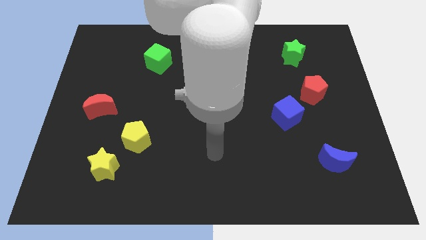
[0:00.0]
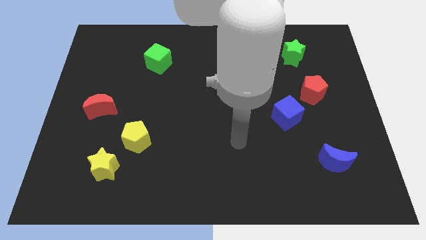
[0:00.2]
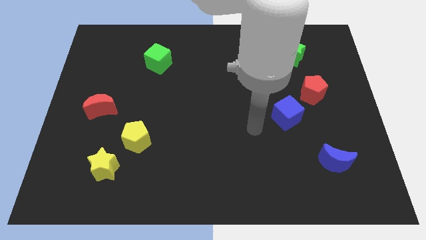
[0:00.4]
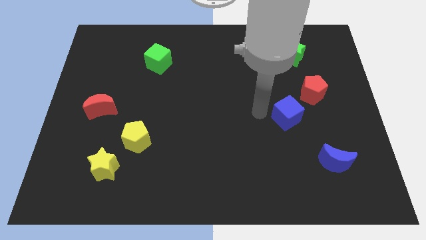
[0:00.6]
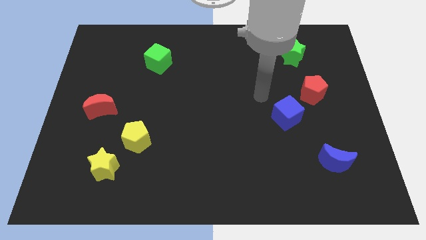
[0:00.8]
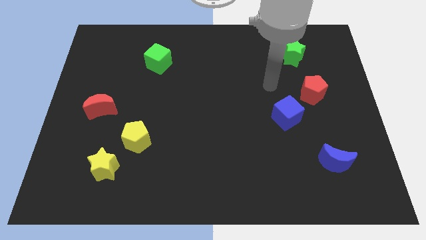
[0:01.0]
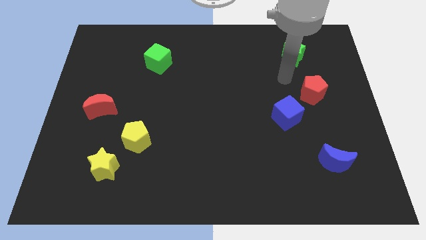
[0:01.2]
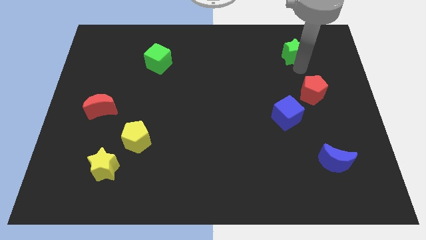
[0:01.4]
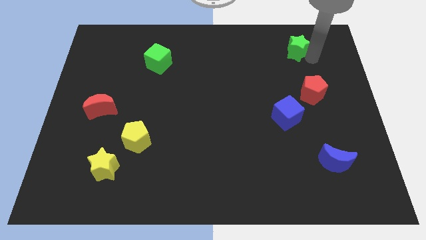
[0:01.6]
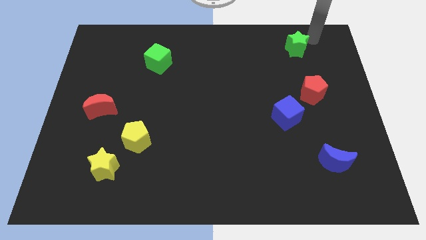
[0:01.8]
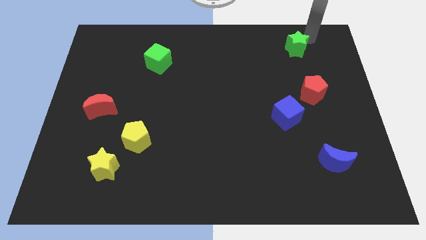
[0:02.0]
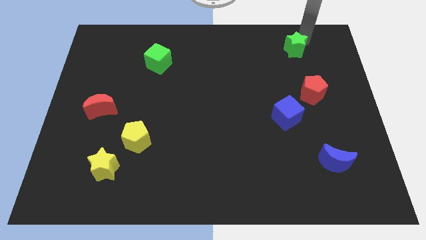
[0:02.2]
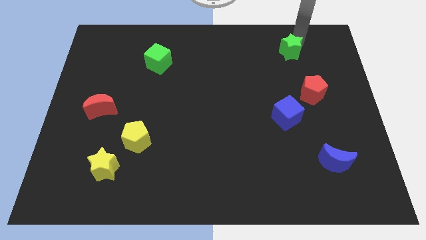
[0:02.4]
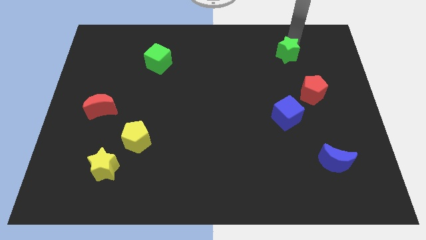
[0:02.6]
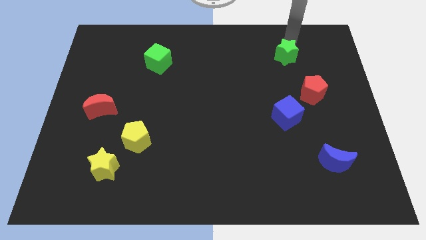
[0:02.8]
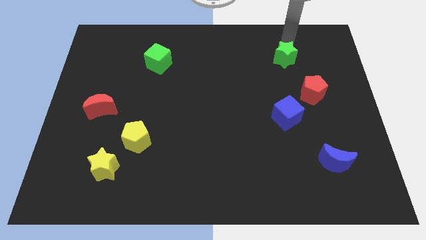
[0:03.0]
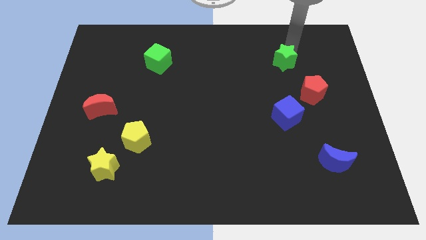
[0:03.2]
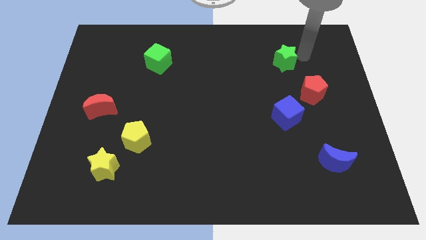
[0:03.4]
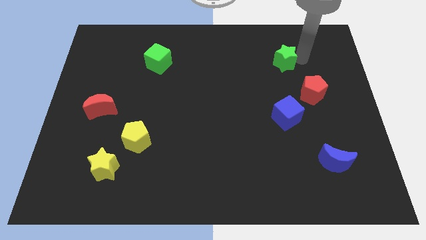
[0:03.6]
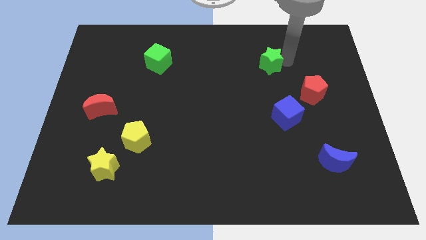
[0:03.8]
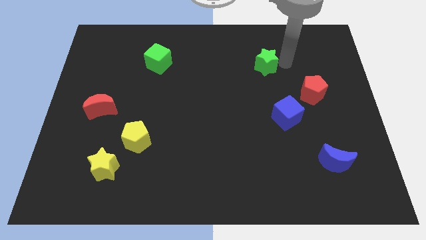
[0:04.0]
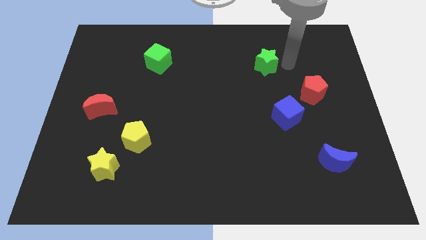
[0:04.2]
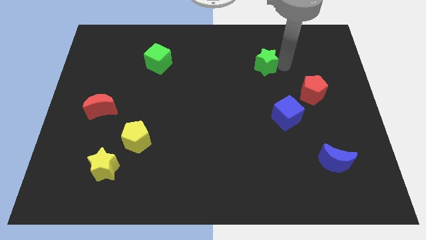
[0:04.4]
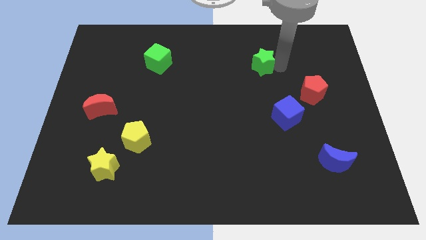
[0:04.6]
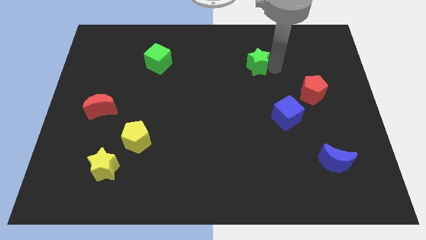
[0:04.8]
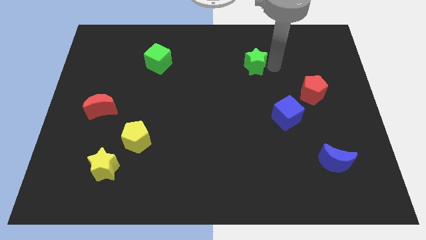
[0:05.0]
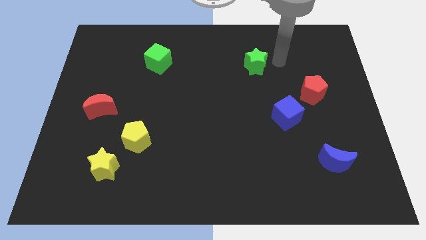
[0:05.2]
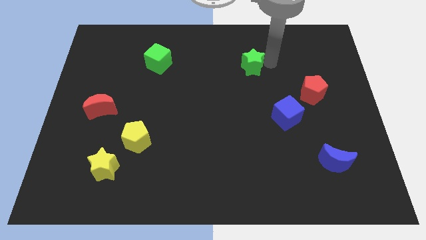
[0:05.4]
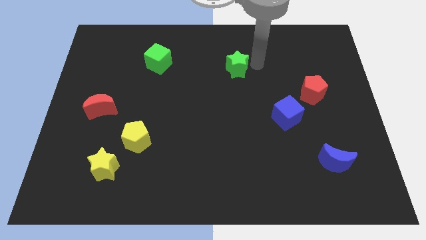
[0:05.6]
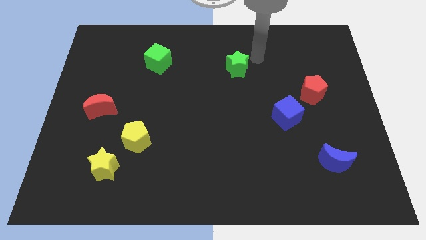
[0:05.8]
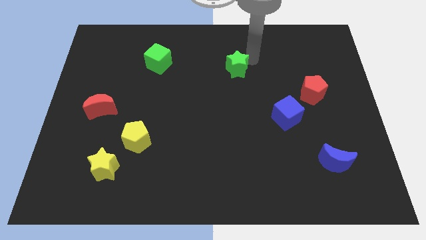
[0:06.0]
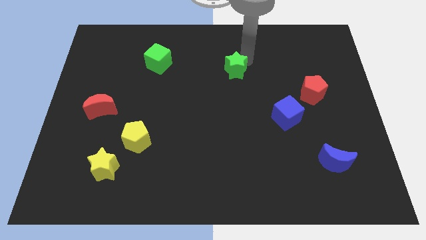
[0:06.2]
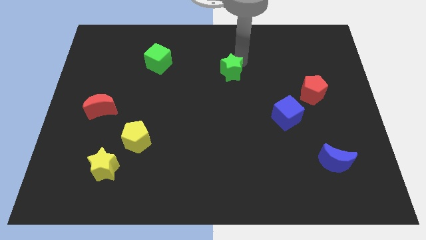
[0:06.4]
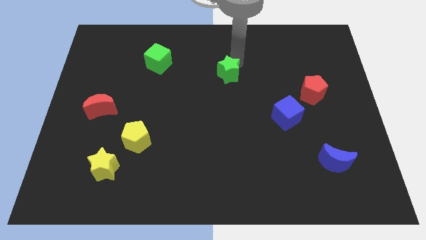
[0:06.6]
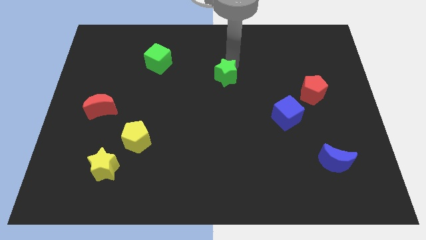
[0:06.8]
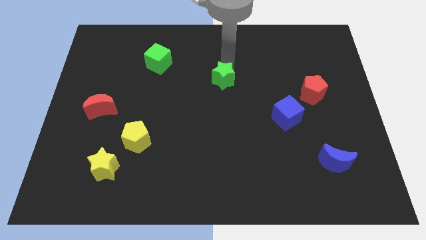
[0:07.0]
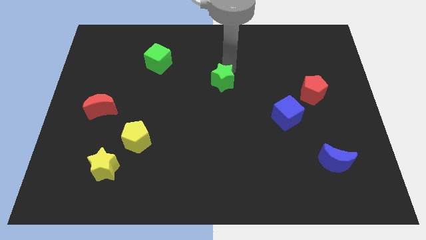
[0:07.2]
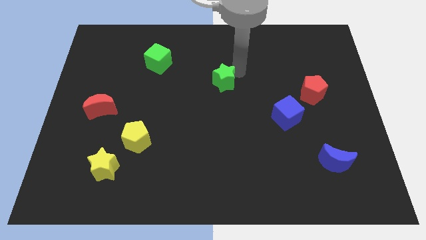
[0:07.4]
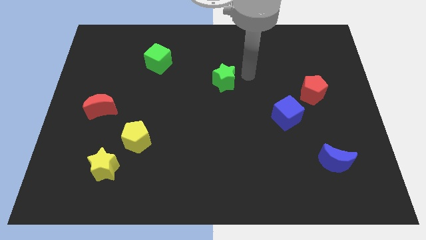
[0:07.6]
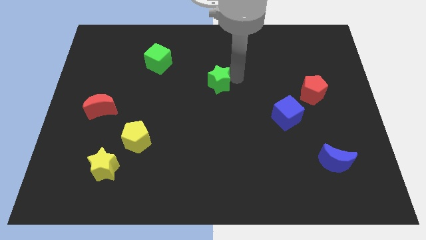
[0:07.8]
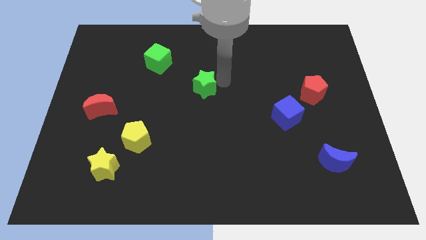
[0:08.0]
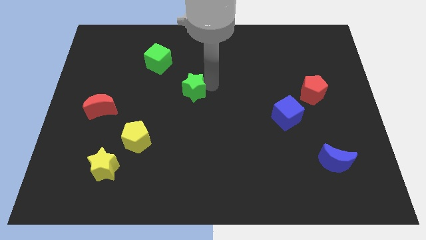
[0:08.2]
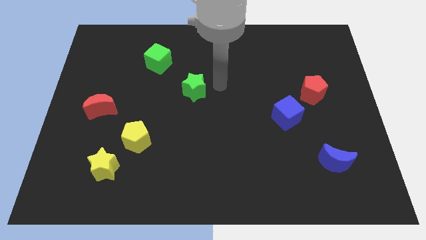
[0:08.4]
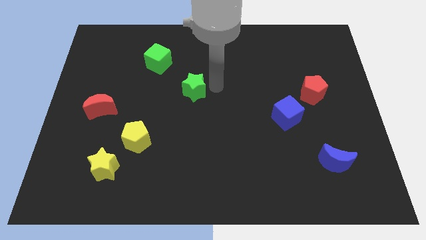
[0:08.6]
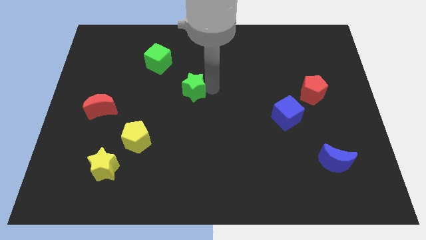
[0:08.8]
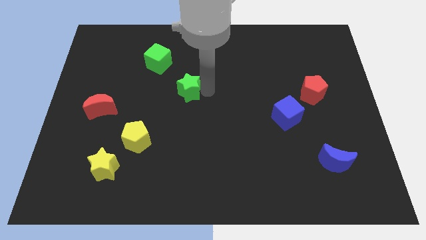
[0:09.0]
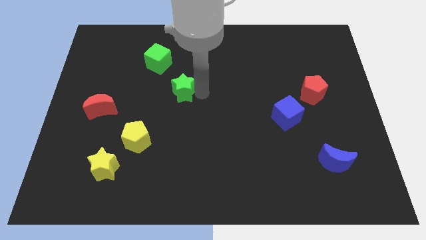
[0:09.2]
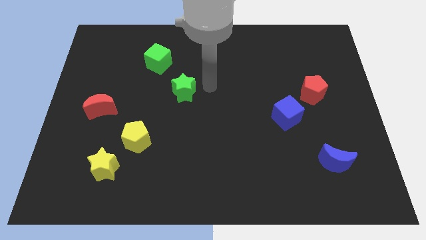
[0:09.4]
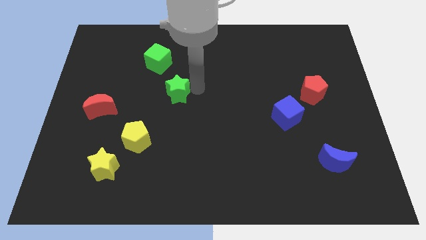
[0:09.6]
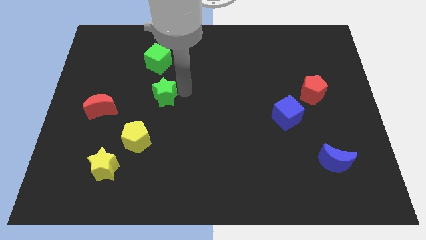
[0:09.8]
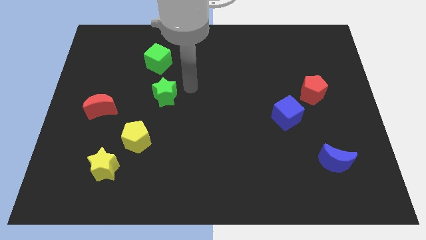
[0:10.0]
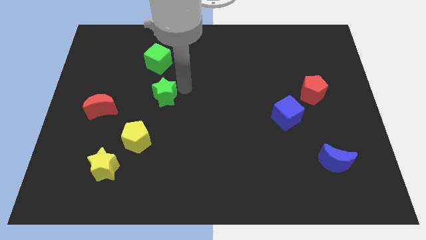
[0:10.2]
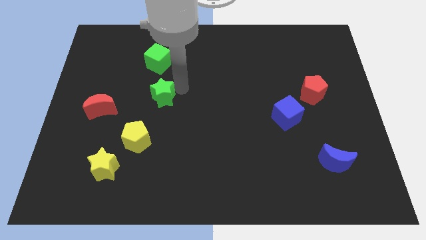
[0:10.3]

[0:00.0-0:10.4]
push the green star to the top of the yellow pentagon

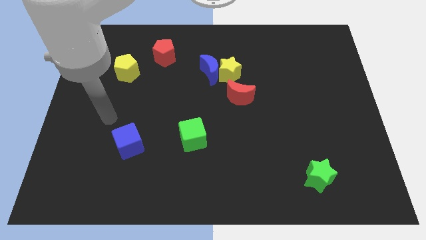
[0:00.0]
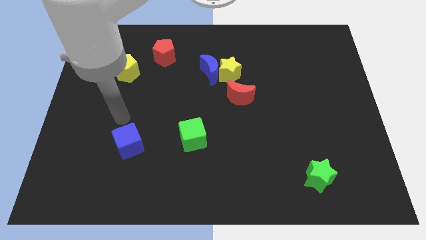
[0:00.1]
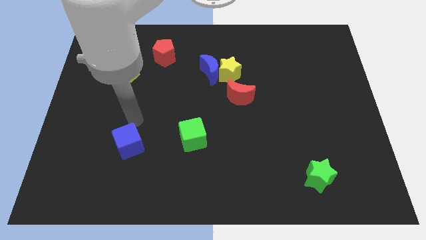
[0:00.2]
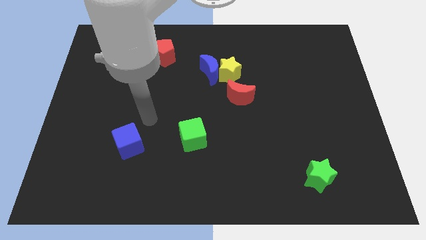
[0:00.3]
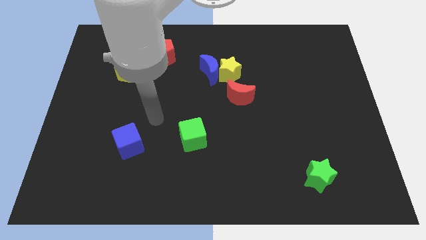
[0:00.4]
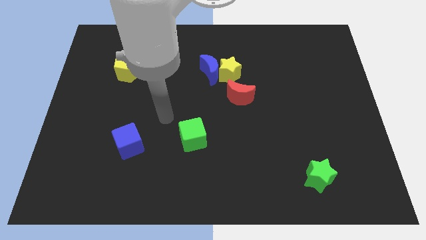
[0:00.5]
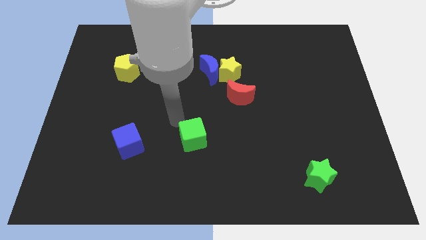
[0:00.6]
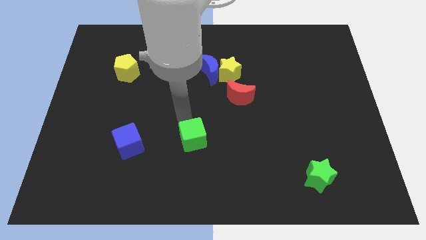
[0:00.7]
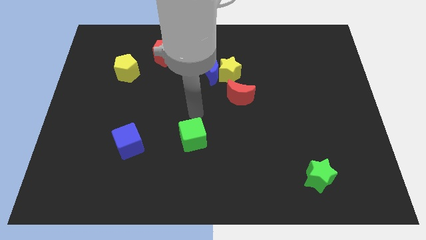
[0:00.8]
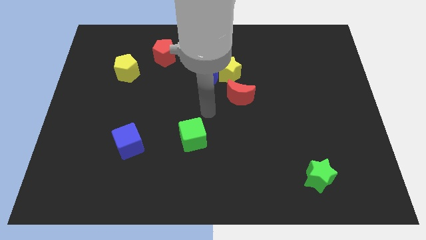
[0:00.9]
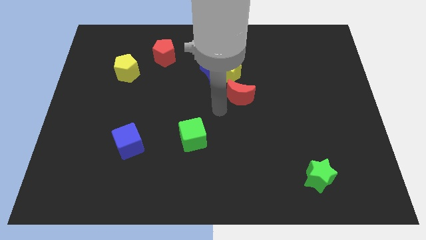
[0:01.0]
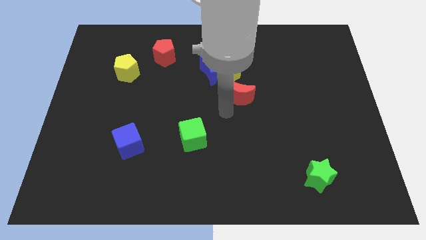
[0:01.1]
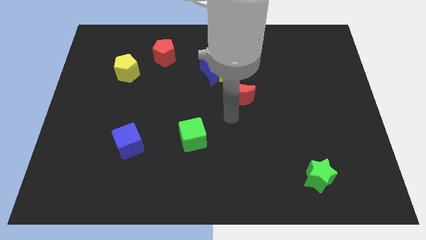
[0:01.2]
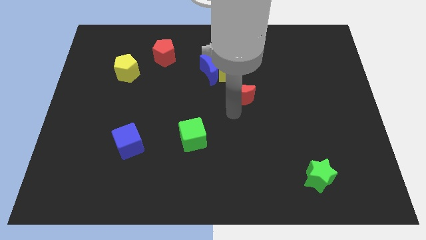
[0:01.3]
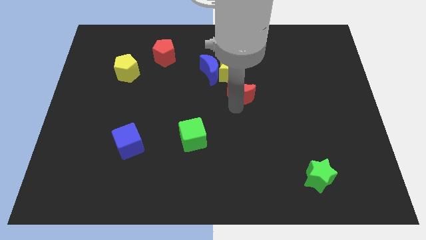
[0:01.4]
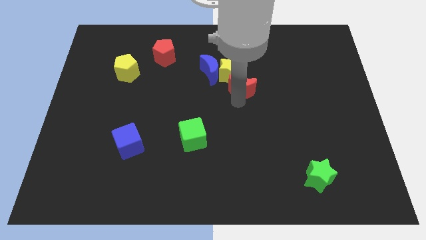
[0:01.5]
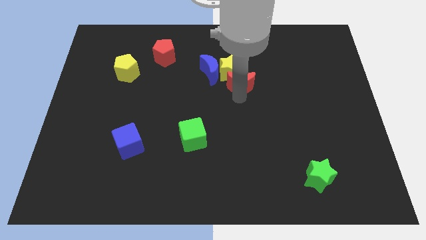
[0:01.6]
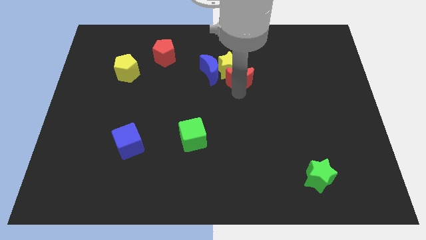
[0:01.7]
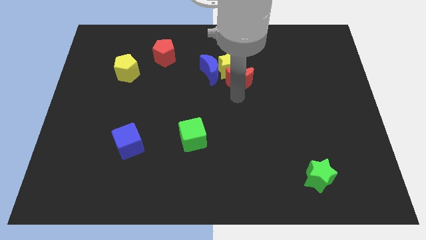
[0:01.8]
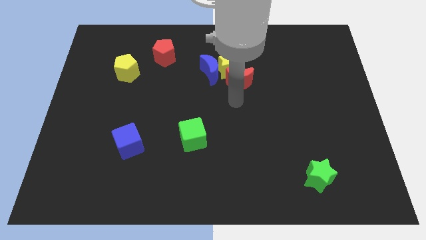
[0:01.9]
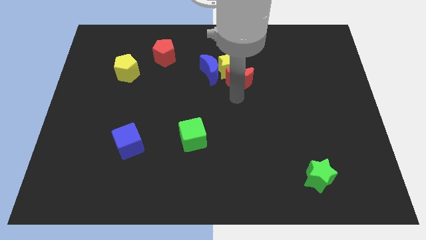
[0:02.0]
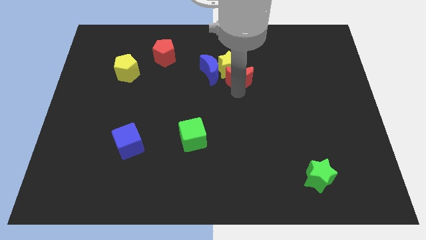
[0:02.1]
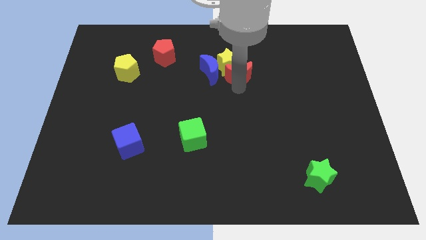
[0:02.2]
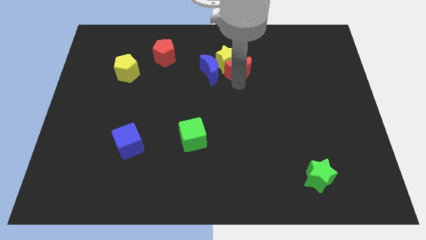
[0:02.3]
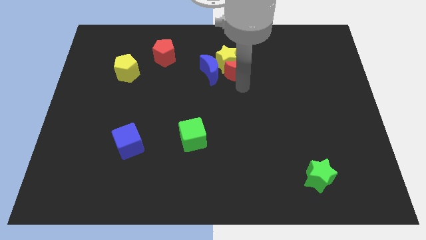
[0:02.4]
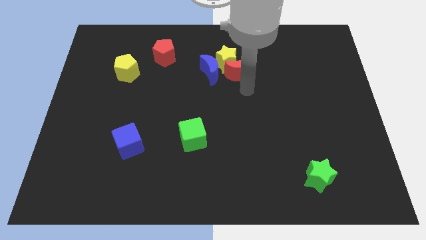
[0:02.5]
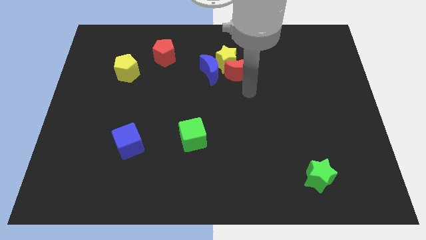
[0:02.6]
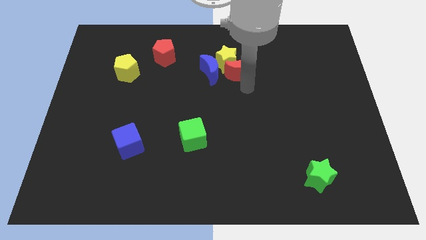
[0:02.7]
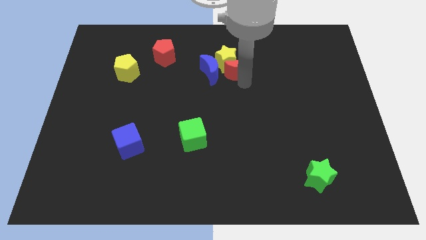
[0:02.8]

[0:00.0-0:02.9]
slide the red moon to the top right of the blue moon
